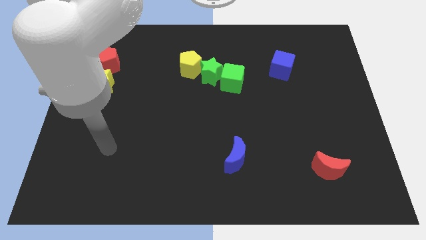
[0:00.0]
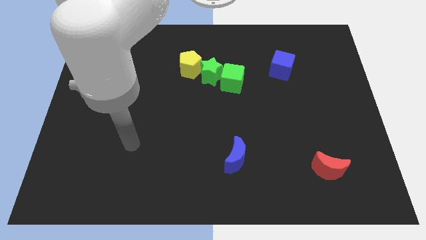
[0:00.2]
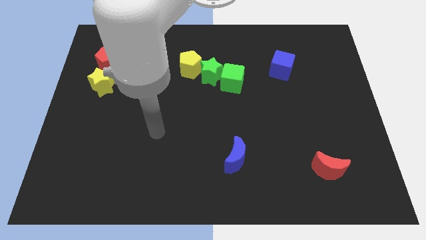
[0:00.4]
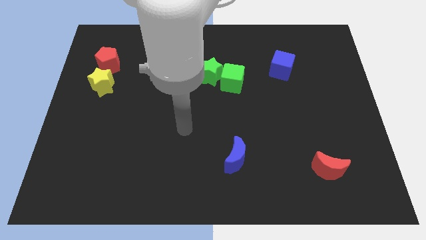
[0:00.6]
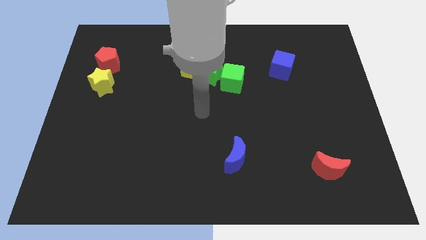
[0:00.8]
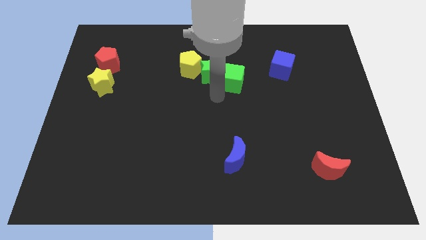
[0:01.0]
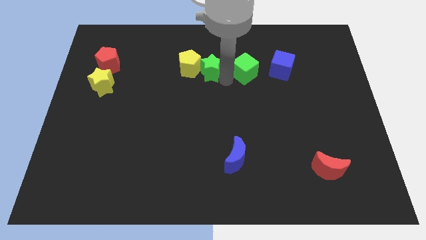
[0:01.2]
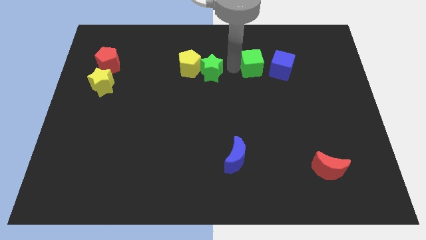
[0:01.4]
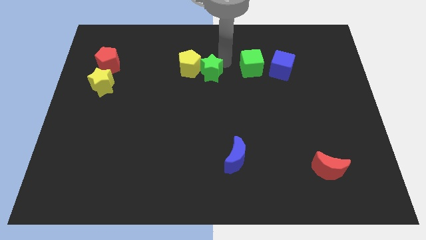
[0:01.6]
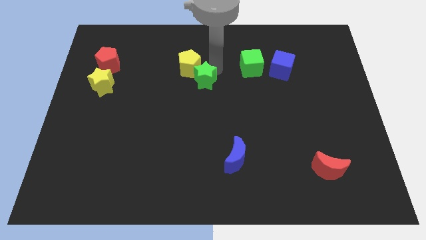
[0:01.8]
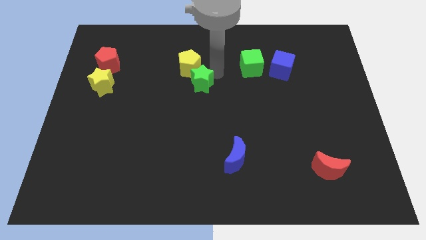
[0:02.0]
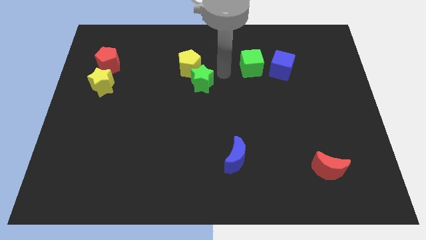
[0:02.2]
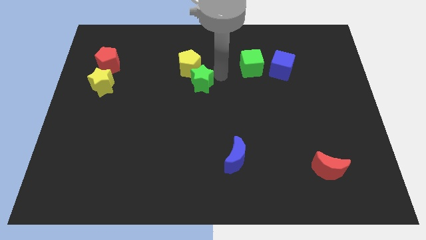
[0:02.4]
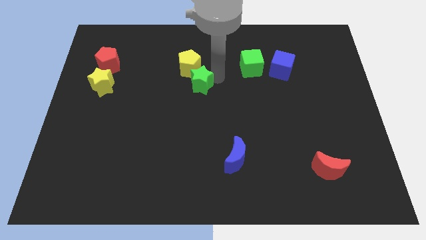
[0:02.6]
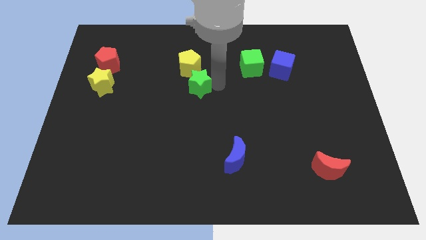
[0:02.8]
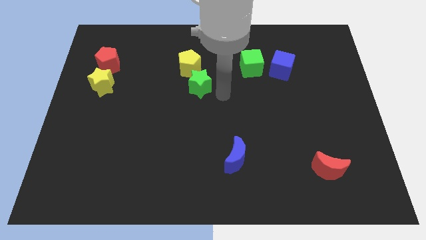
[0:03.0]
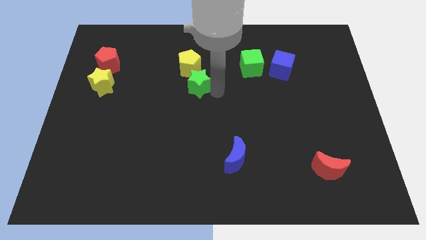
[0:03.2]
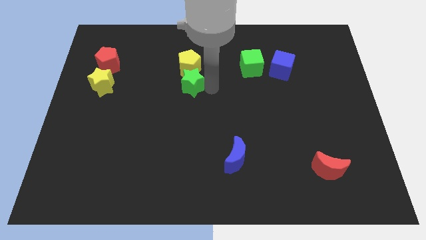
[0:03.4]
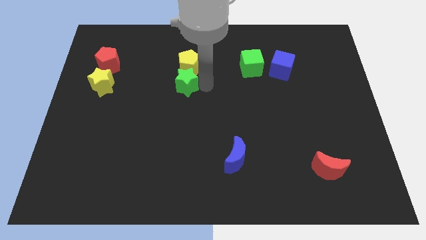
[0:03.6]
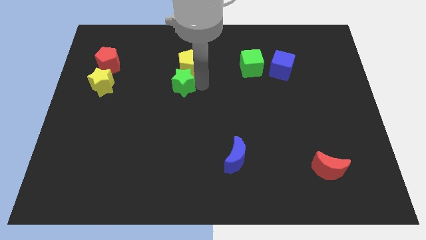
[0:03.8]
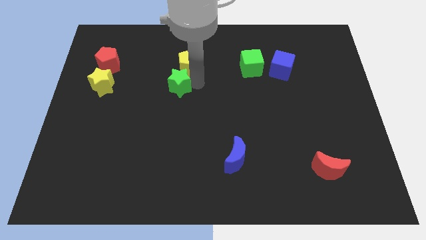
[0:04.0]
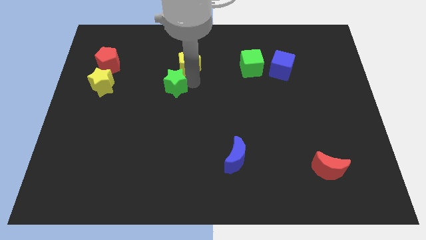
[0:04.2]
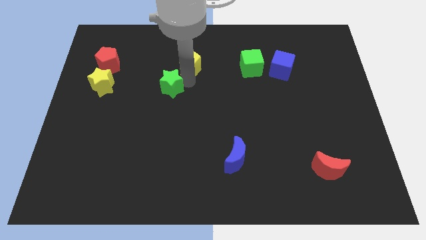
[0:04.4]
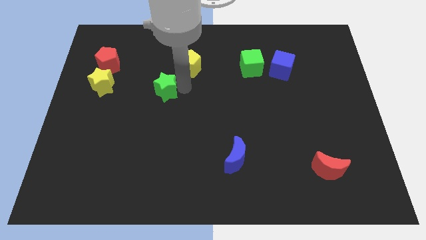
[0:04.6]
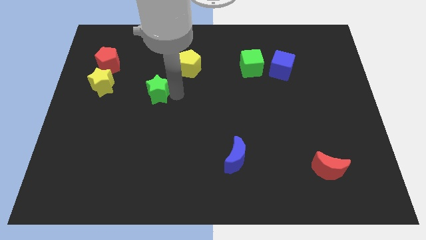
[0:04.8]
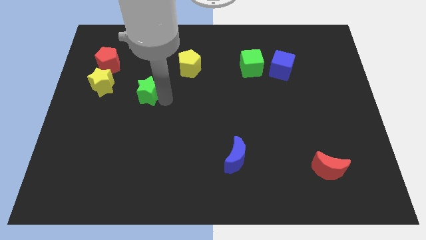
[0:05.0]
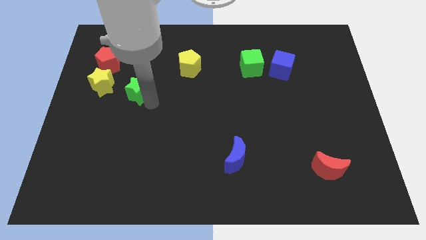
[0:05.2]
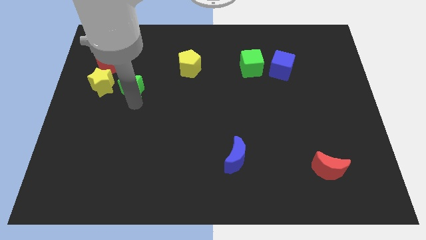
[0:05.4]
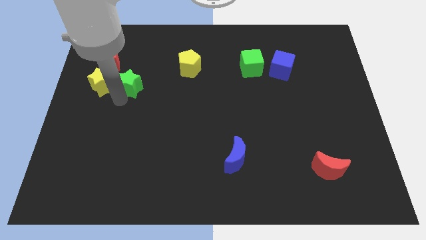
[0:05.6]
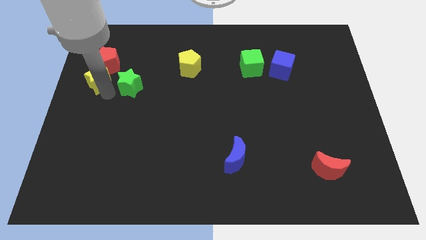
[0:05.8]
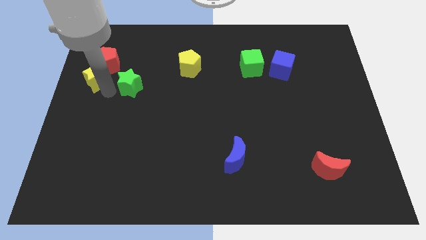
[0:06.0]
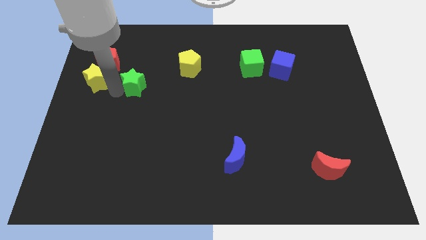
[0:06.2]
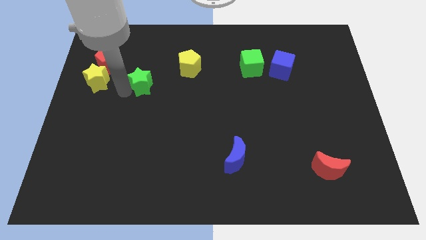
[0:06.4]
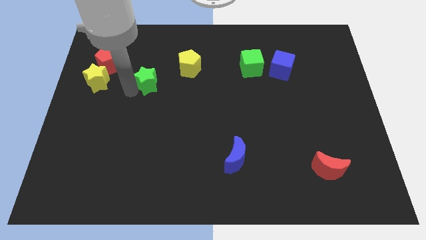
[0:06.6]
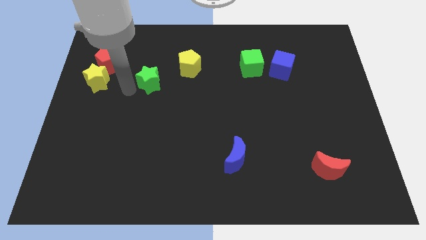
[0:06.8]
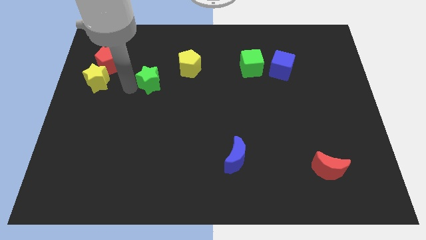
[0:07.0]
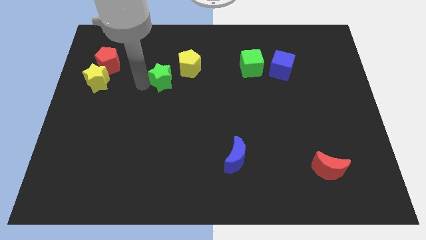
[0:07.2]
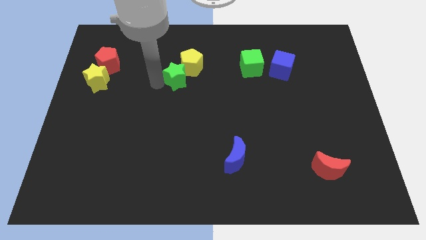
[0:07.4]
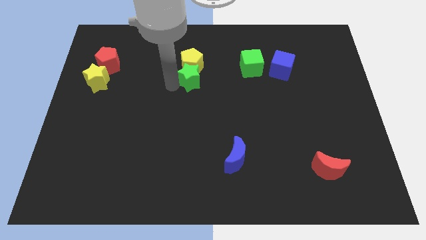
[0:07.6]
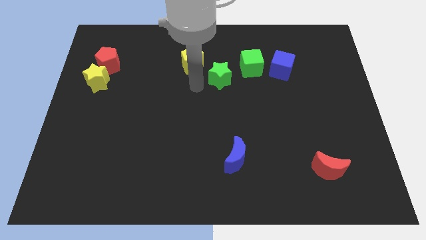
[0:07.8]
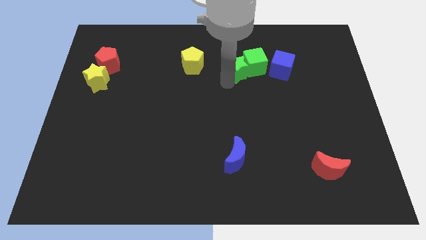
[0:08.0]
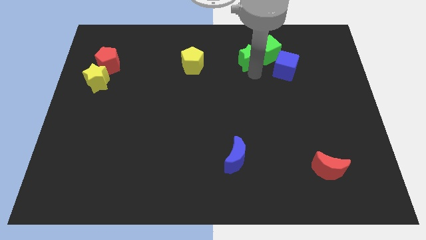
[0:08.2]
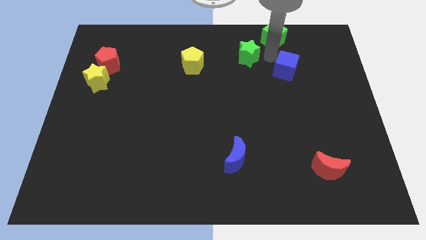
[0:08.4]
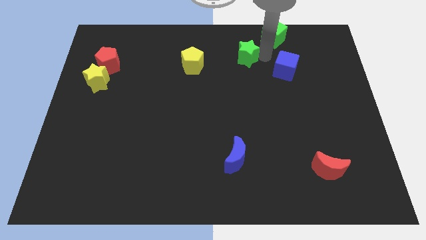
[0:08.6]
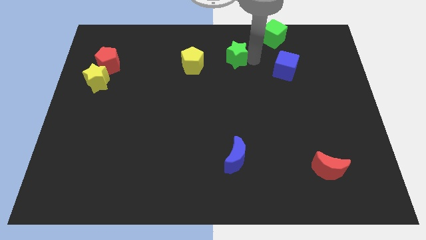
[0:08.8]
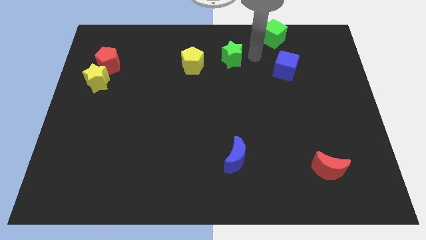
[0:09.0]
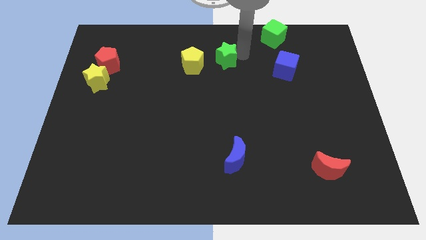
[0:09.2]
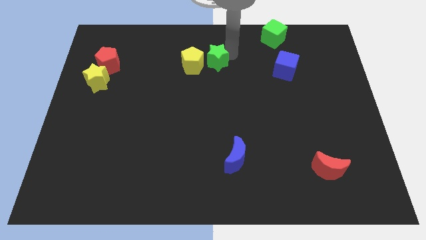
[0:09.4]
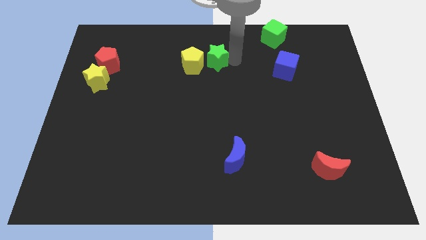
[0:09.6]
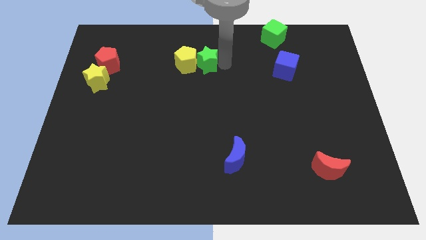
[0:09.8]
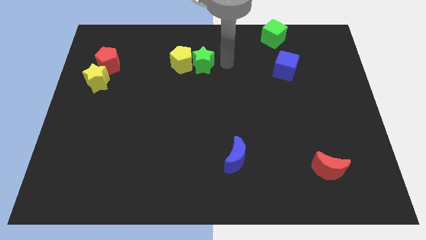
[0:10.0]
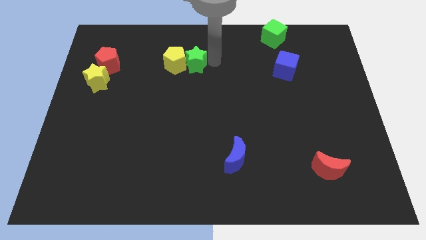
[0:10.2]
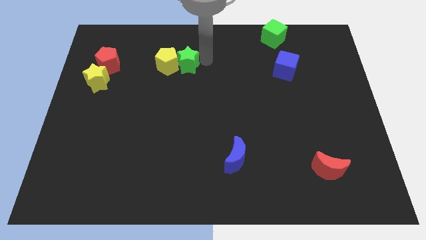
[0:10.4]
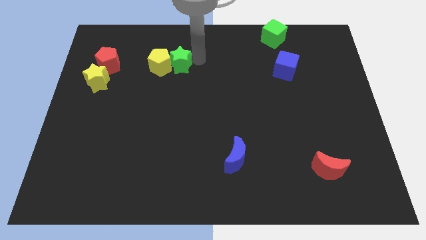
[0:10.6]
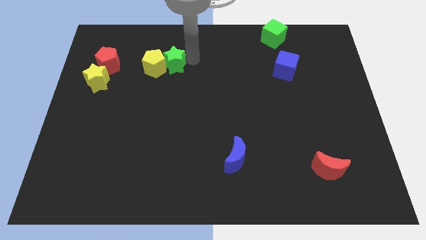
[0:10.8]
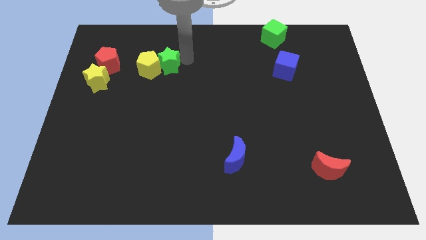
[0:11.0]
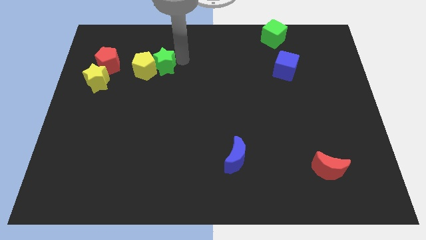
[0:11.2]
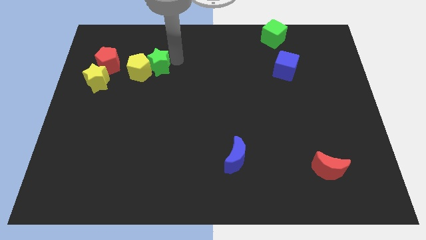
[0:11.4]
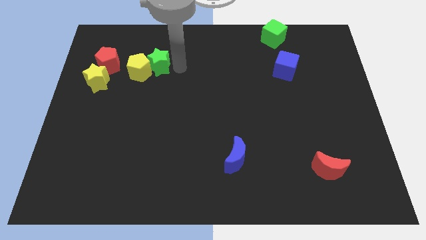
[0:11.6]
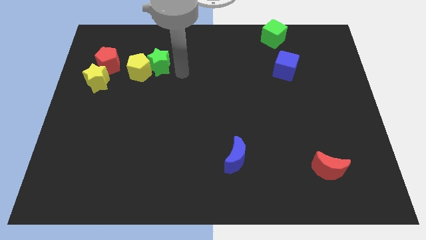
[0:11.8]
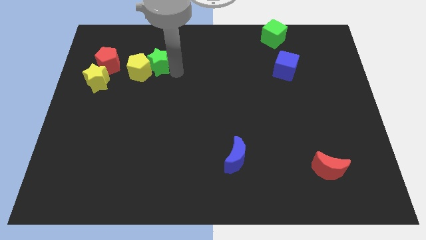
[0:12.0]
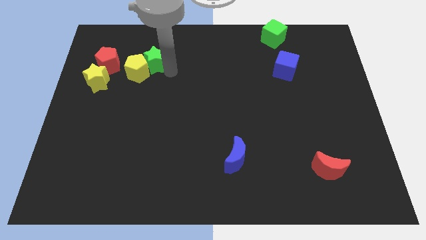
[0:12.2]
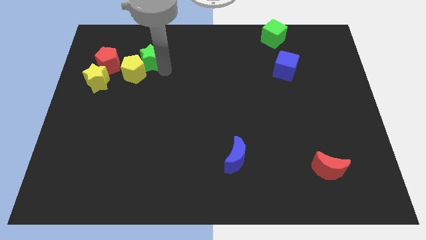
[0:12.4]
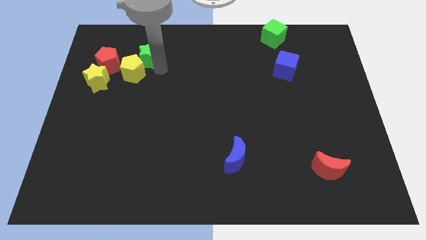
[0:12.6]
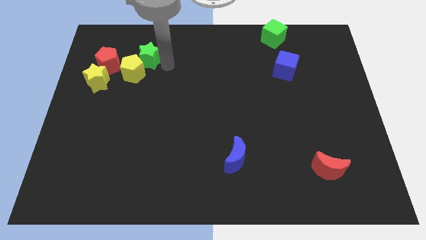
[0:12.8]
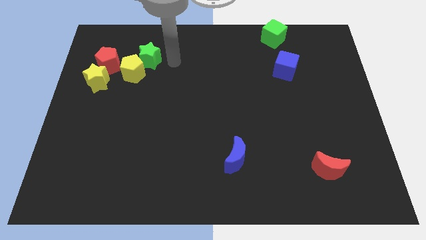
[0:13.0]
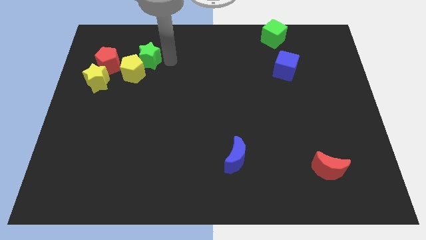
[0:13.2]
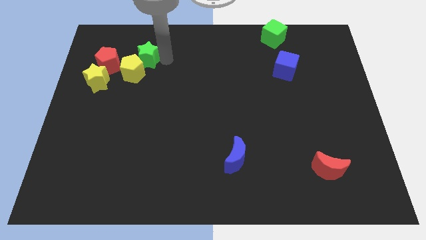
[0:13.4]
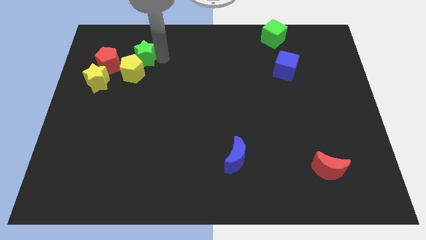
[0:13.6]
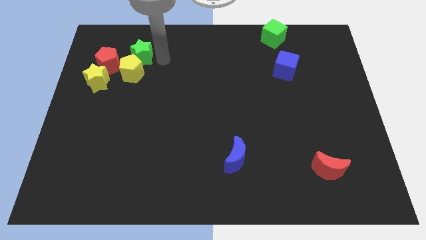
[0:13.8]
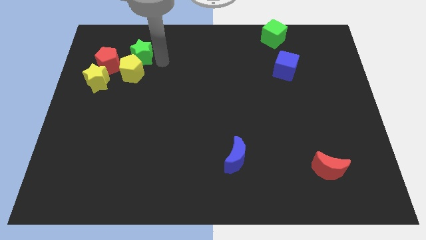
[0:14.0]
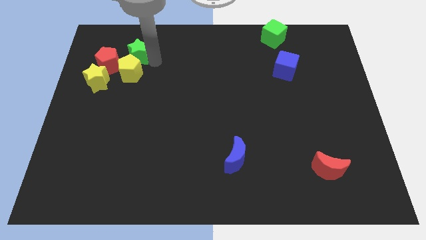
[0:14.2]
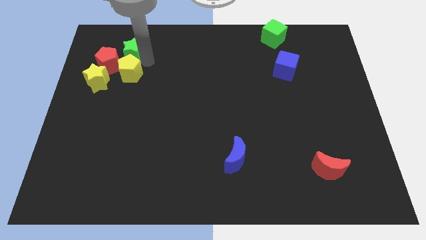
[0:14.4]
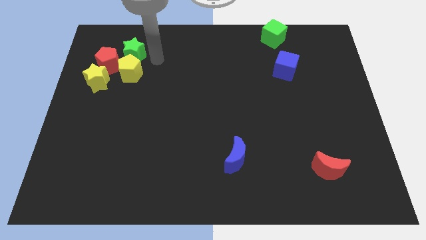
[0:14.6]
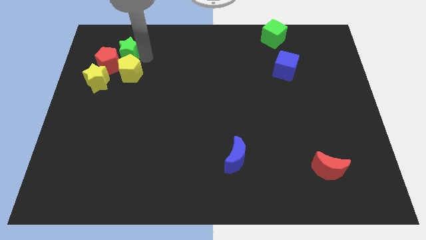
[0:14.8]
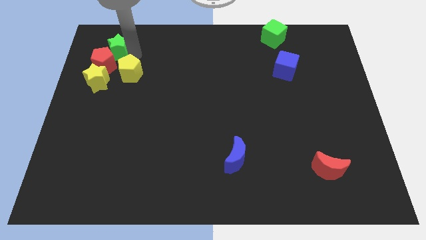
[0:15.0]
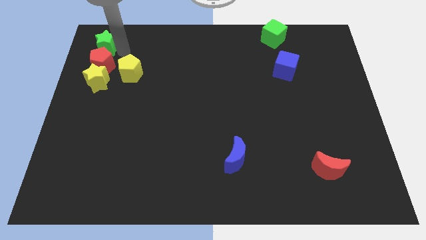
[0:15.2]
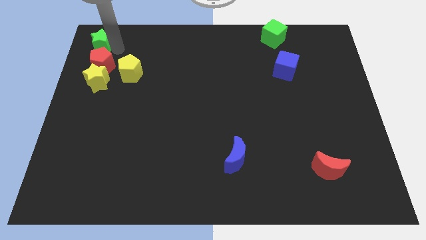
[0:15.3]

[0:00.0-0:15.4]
slide the green star to the upper left corner

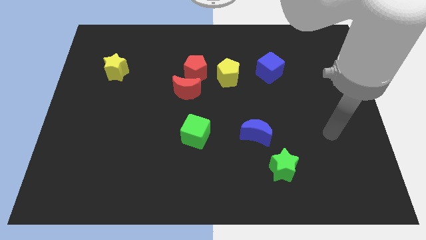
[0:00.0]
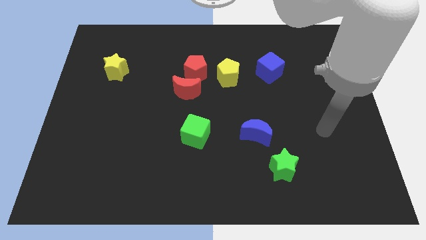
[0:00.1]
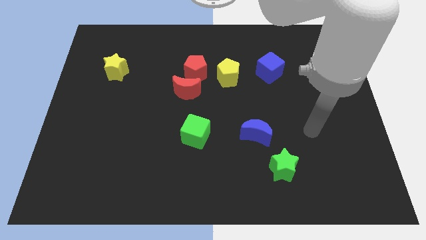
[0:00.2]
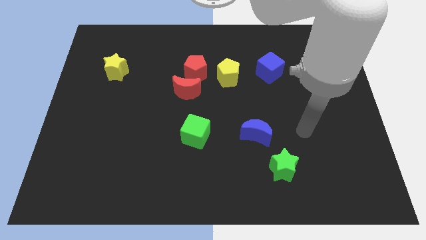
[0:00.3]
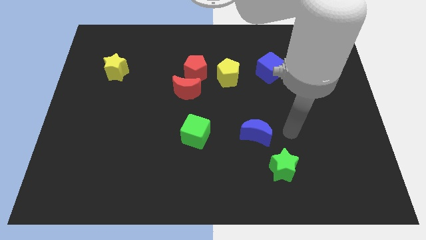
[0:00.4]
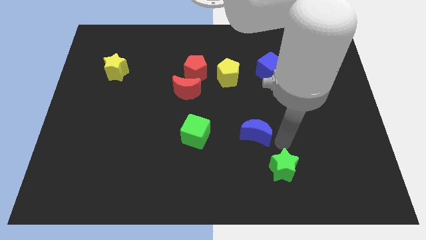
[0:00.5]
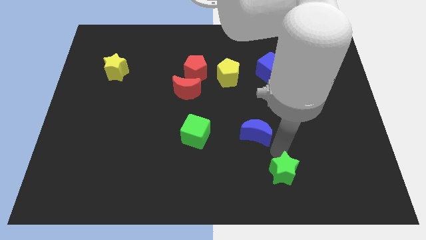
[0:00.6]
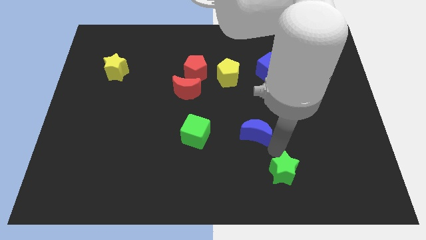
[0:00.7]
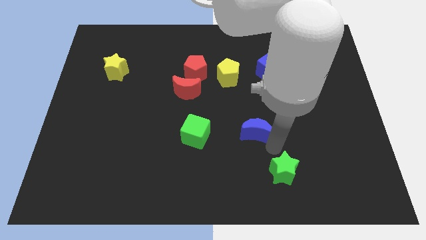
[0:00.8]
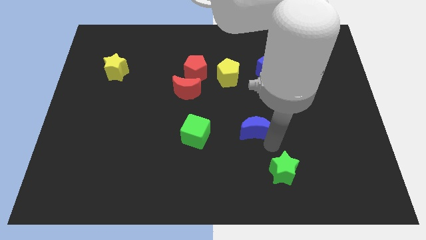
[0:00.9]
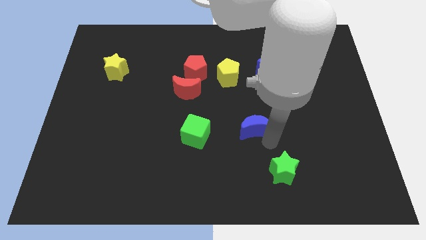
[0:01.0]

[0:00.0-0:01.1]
push the blue moon to the center
